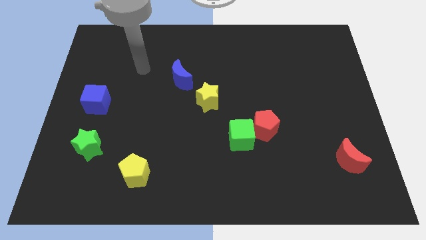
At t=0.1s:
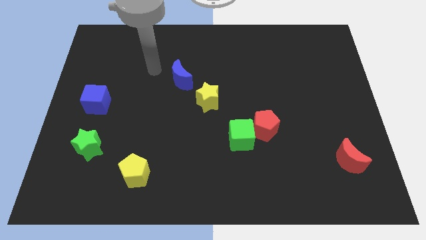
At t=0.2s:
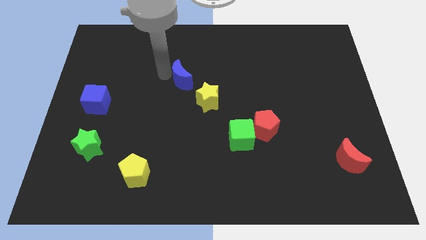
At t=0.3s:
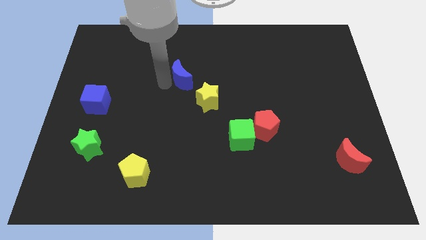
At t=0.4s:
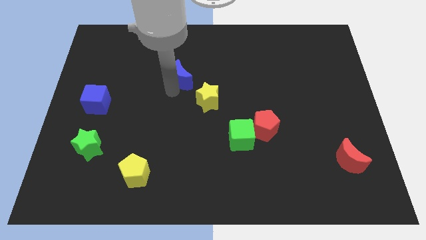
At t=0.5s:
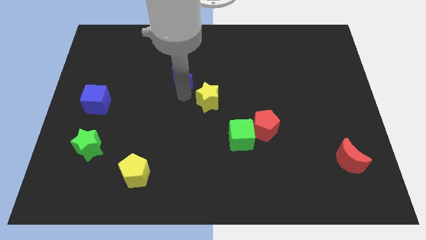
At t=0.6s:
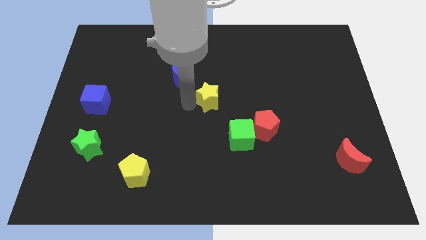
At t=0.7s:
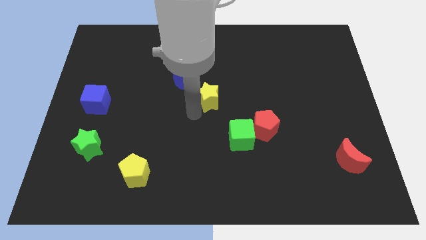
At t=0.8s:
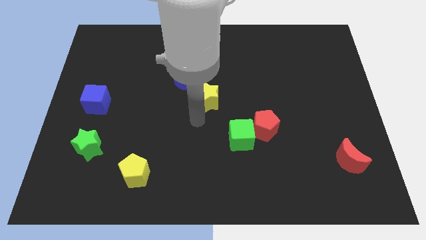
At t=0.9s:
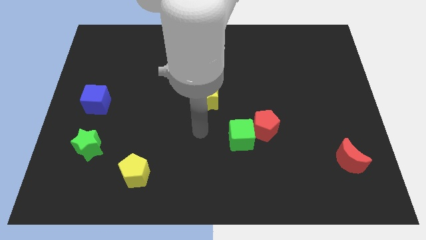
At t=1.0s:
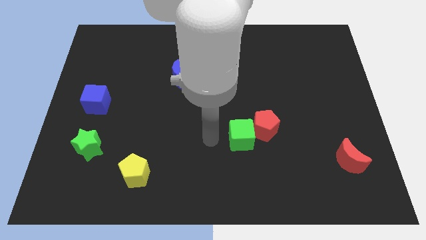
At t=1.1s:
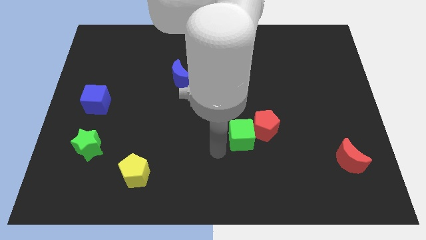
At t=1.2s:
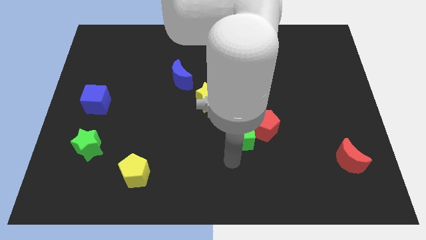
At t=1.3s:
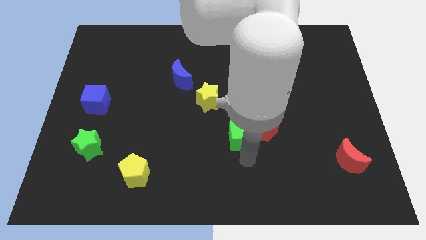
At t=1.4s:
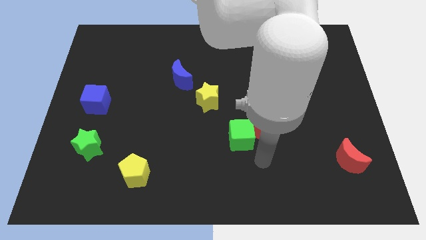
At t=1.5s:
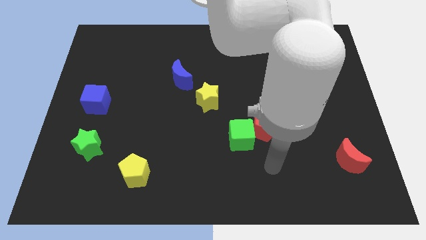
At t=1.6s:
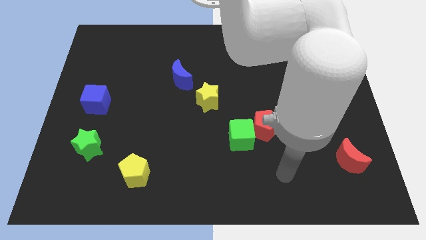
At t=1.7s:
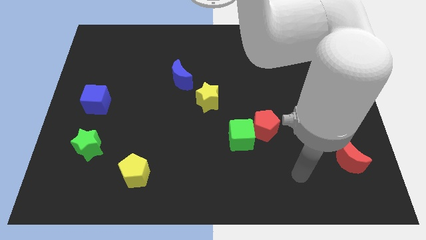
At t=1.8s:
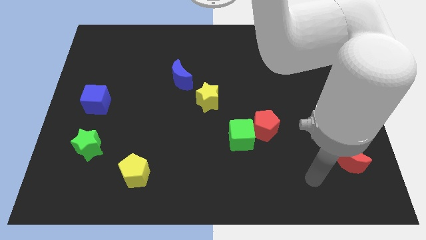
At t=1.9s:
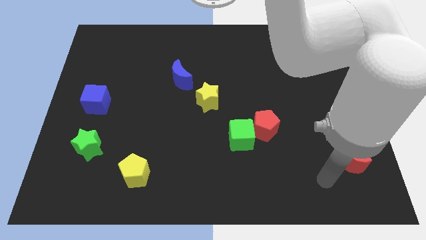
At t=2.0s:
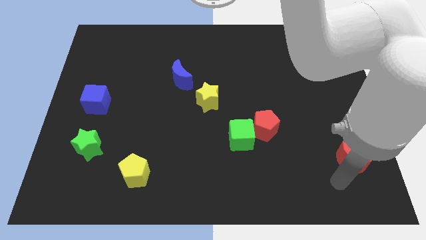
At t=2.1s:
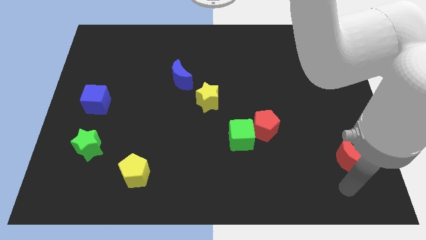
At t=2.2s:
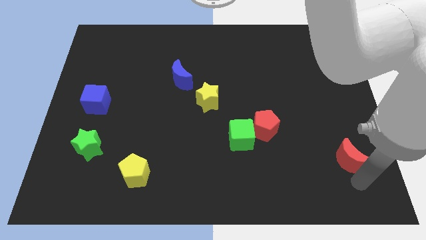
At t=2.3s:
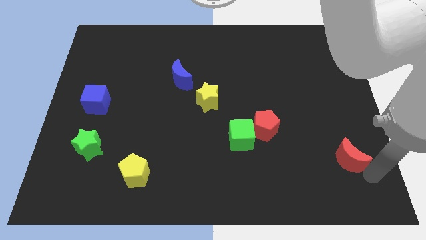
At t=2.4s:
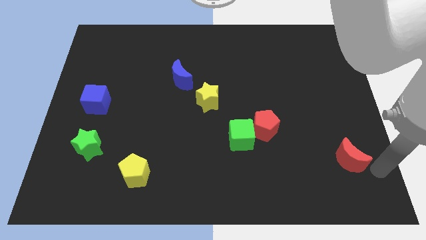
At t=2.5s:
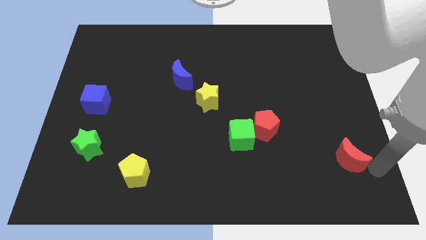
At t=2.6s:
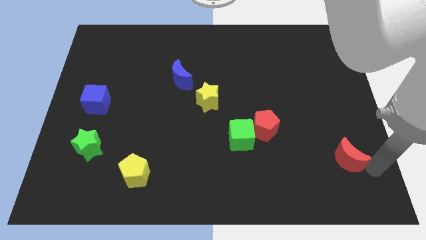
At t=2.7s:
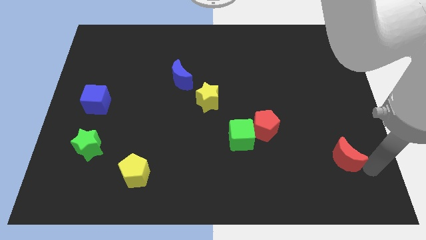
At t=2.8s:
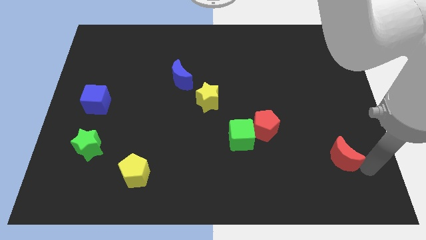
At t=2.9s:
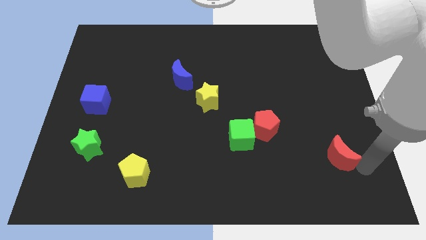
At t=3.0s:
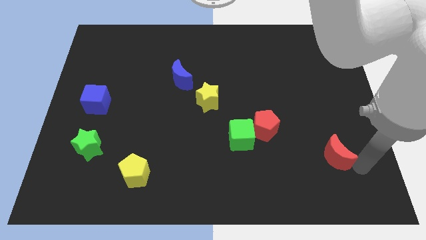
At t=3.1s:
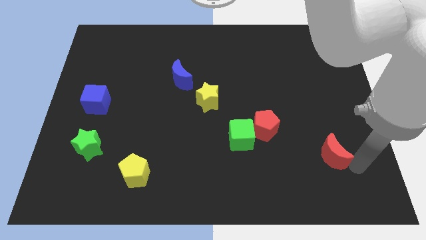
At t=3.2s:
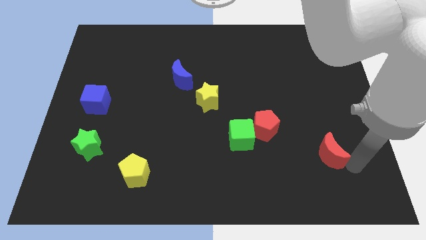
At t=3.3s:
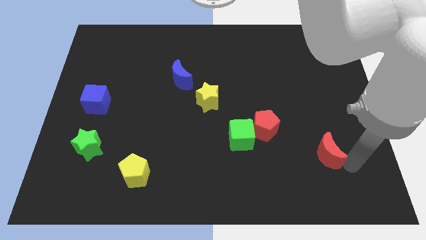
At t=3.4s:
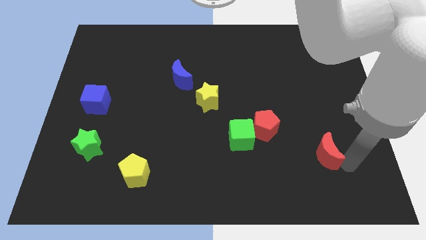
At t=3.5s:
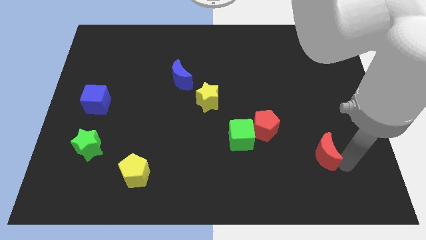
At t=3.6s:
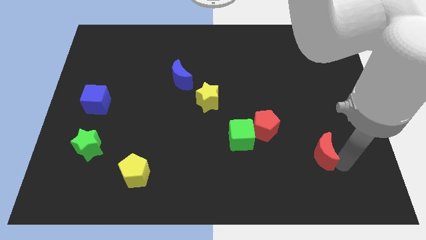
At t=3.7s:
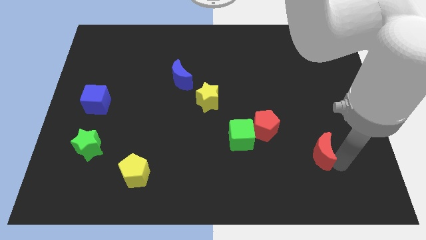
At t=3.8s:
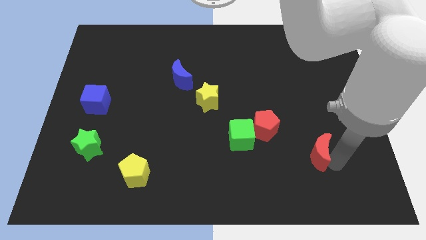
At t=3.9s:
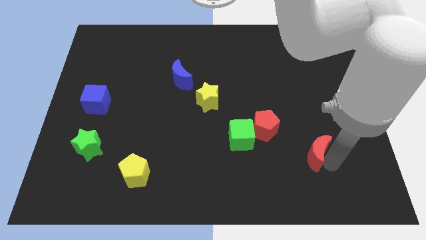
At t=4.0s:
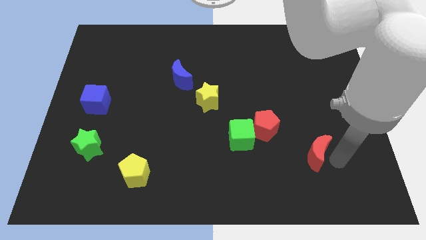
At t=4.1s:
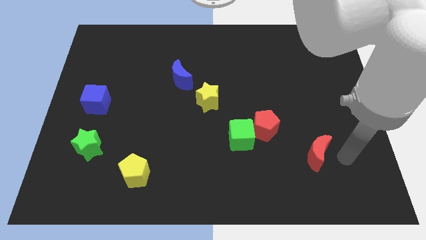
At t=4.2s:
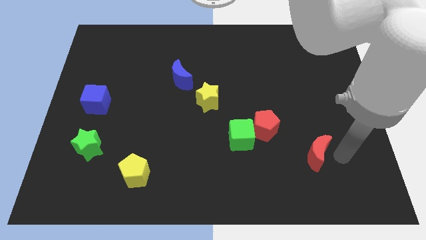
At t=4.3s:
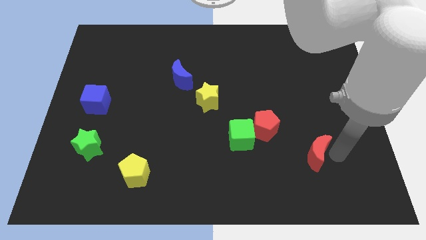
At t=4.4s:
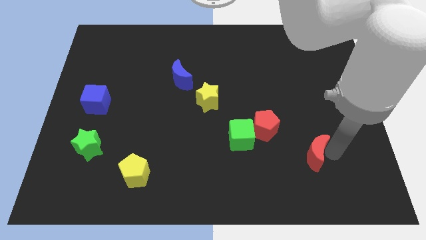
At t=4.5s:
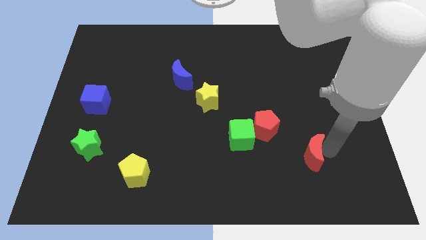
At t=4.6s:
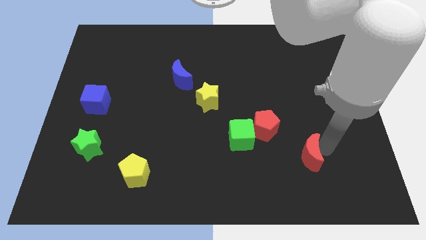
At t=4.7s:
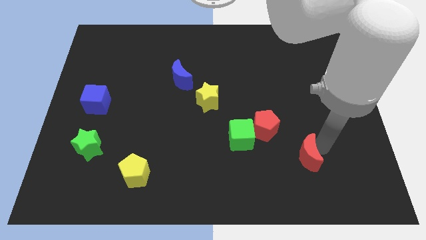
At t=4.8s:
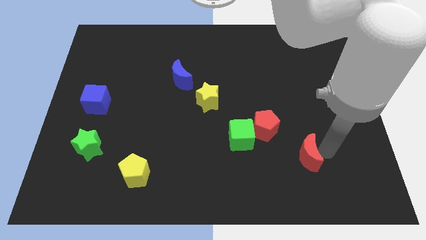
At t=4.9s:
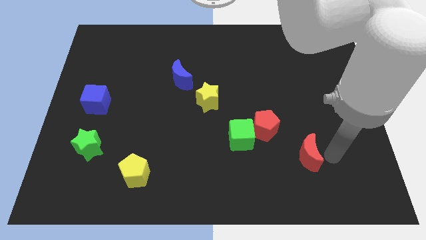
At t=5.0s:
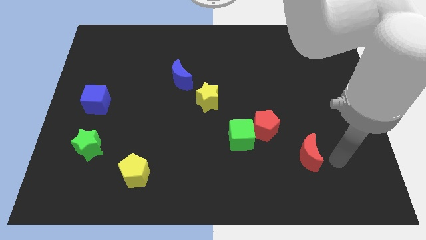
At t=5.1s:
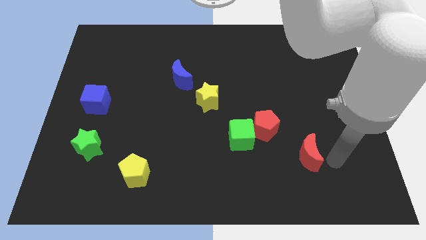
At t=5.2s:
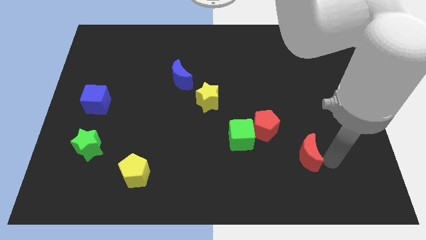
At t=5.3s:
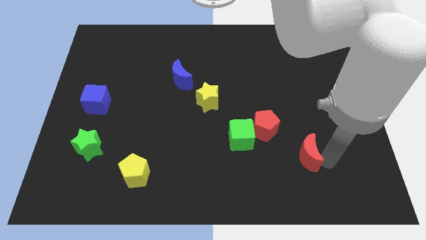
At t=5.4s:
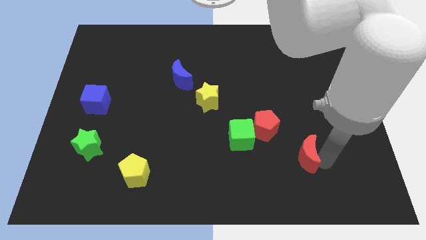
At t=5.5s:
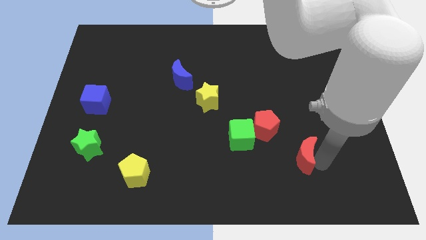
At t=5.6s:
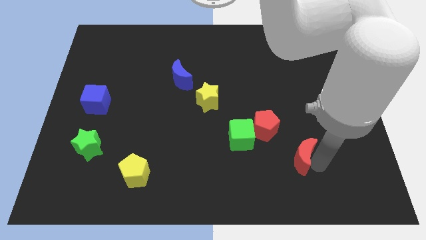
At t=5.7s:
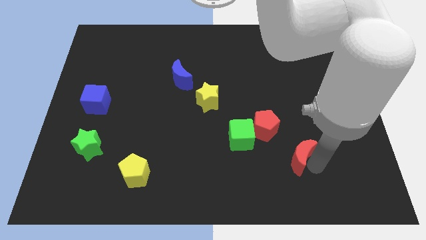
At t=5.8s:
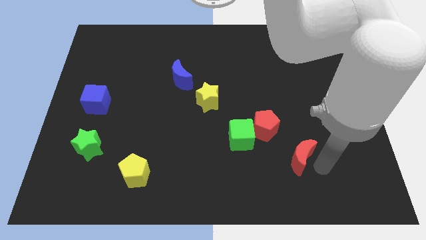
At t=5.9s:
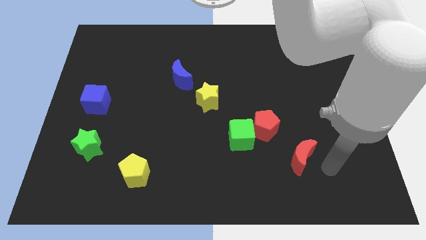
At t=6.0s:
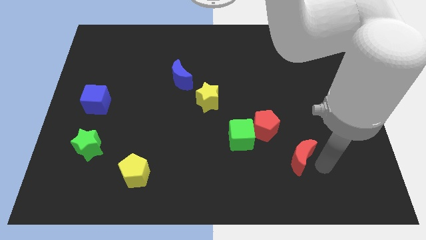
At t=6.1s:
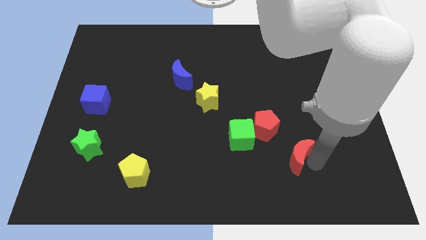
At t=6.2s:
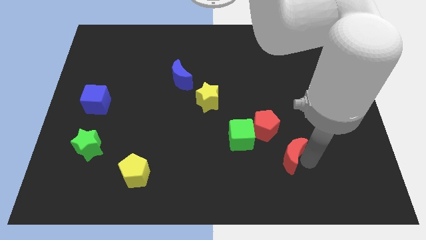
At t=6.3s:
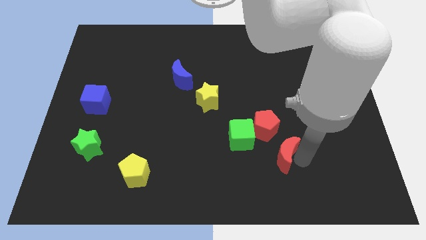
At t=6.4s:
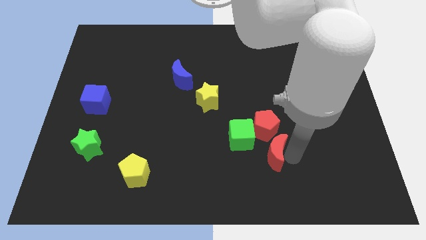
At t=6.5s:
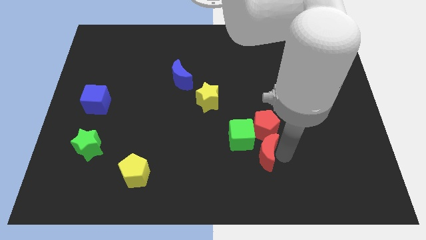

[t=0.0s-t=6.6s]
put the red moon diagonally down and to the left of the red pentagon
